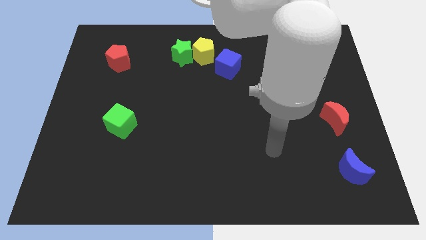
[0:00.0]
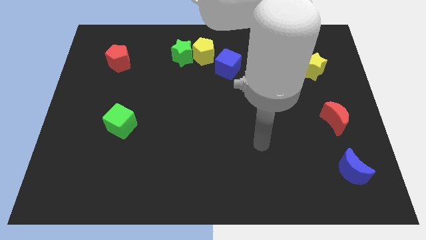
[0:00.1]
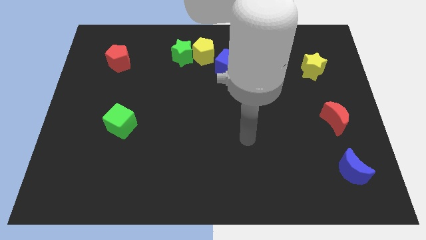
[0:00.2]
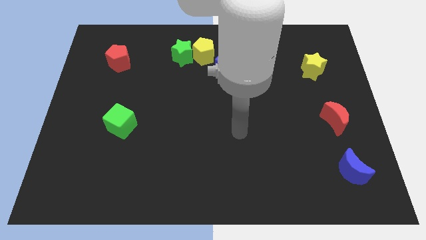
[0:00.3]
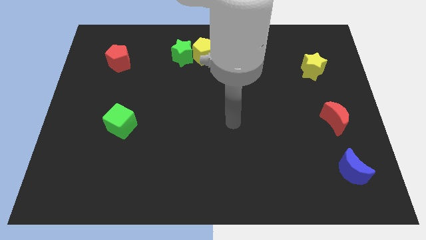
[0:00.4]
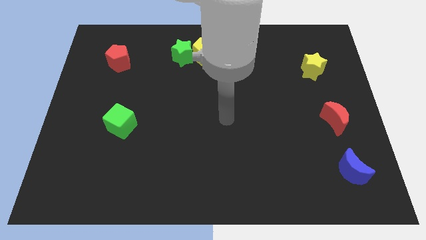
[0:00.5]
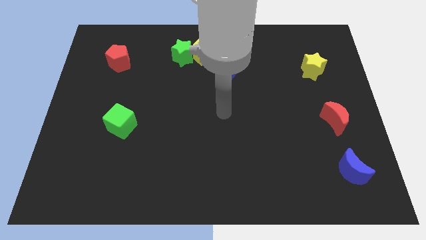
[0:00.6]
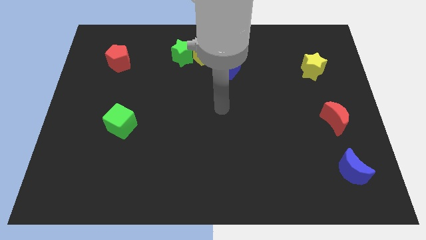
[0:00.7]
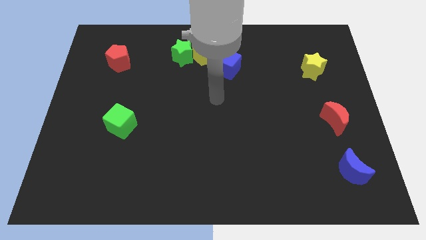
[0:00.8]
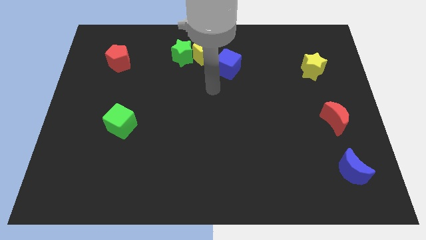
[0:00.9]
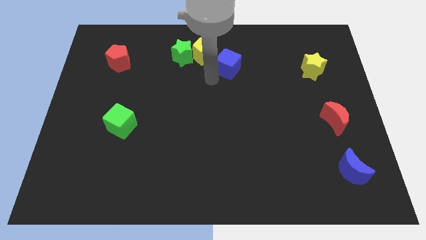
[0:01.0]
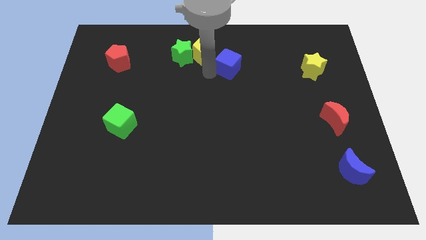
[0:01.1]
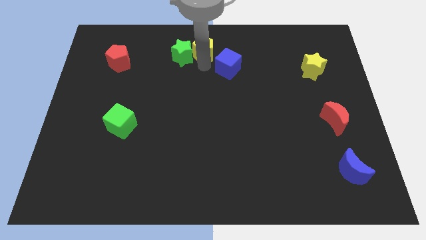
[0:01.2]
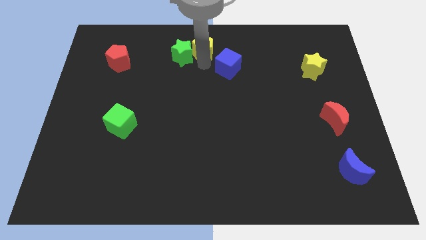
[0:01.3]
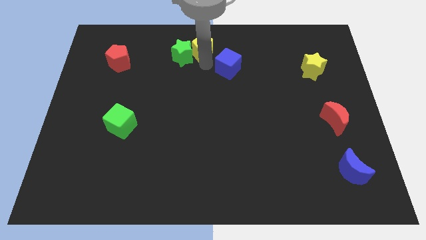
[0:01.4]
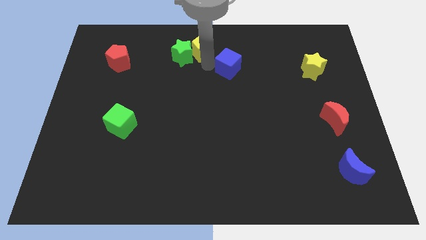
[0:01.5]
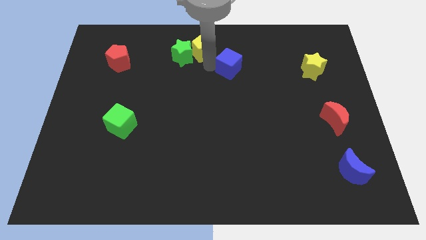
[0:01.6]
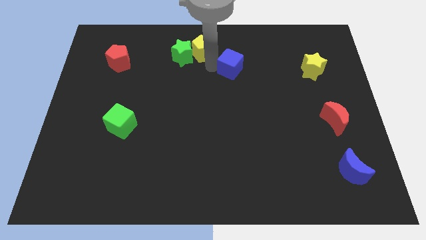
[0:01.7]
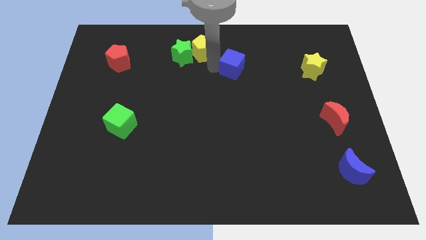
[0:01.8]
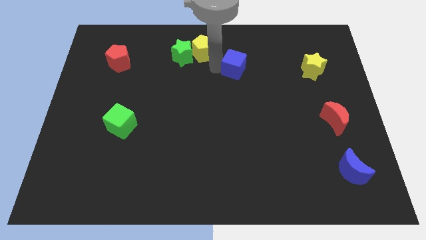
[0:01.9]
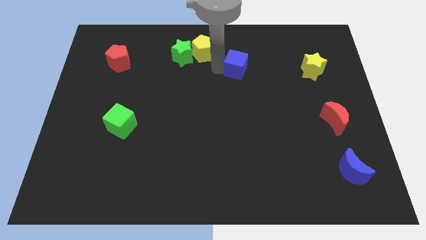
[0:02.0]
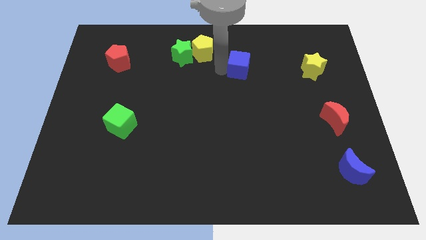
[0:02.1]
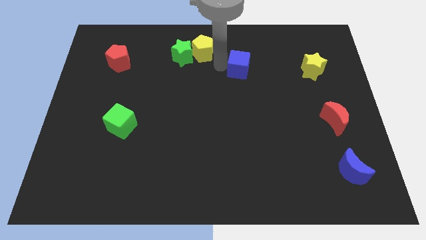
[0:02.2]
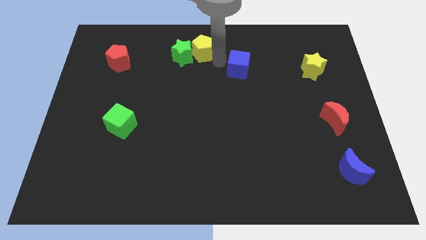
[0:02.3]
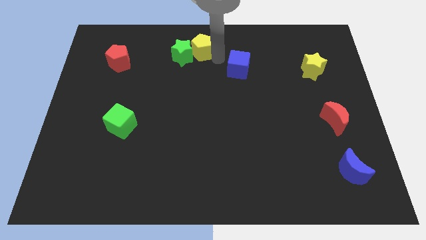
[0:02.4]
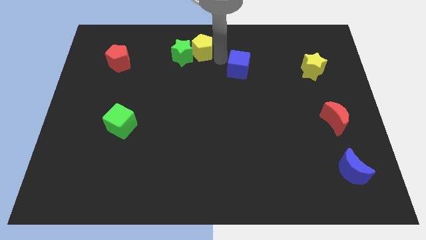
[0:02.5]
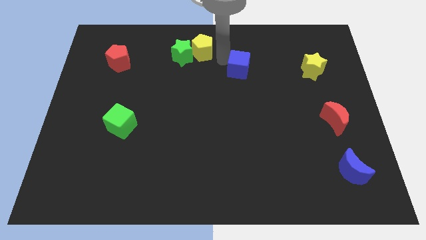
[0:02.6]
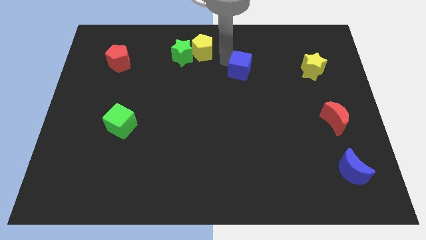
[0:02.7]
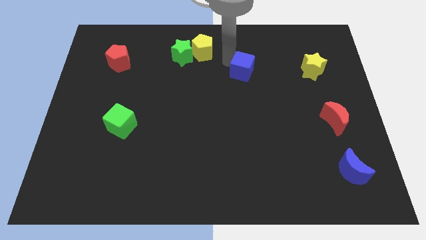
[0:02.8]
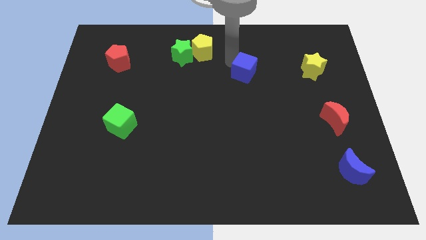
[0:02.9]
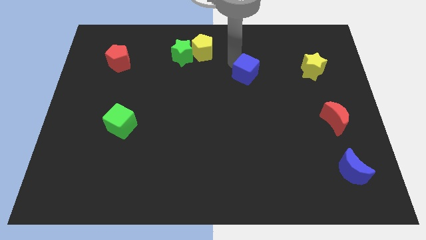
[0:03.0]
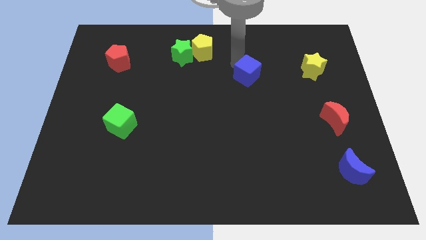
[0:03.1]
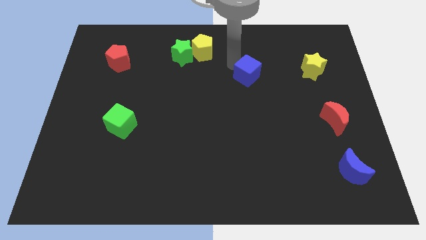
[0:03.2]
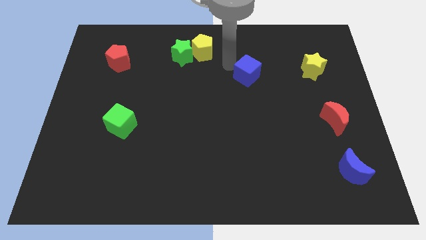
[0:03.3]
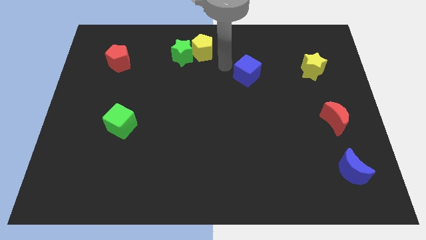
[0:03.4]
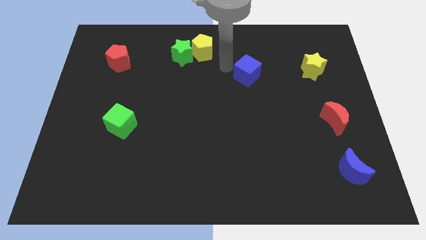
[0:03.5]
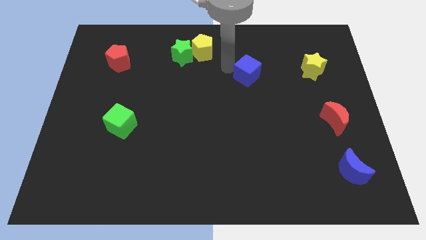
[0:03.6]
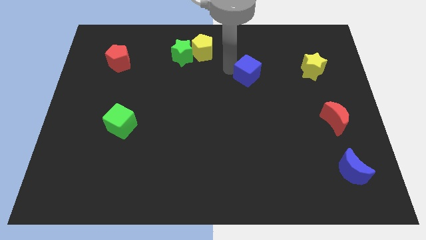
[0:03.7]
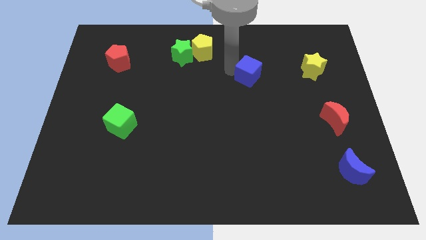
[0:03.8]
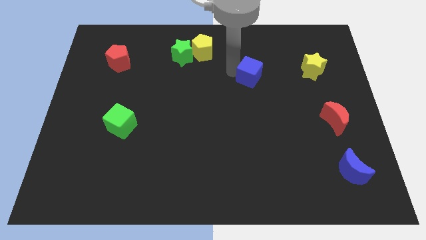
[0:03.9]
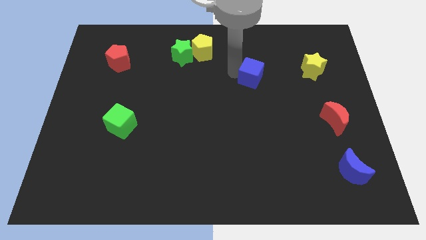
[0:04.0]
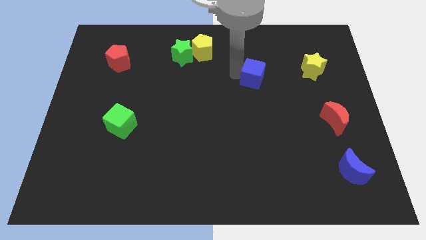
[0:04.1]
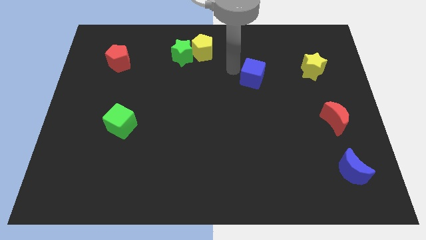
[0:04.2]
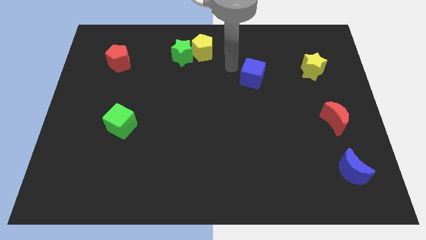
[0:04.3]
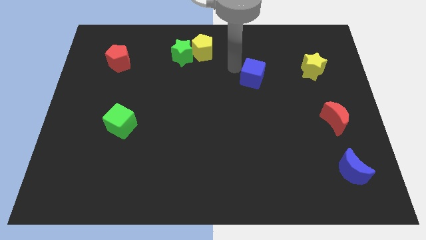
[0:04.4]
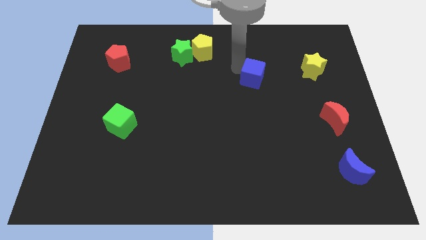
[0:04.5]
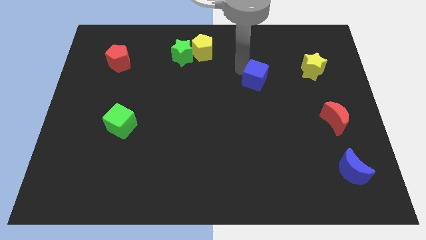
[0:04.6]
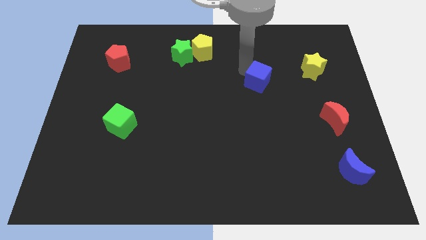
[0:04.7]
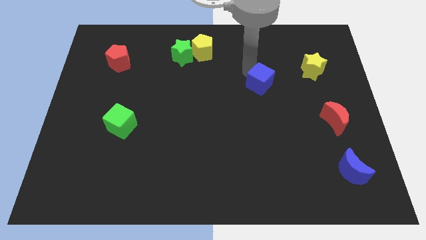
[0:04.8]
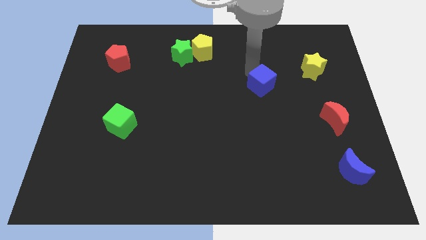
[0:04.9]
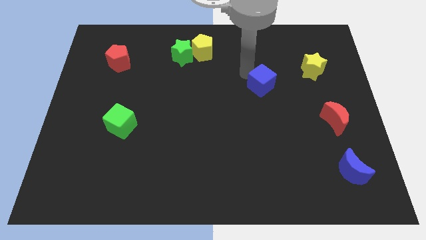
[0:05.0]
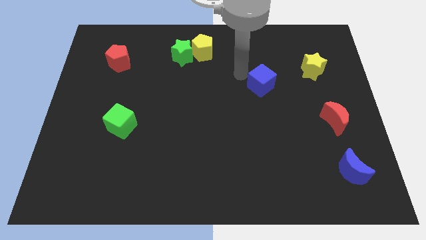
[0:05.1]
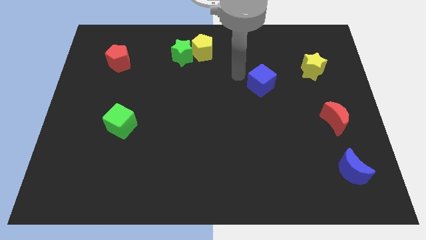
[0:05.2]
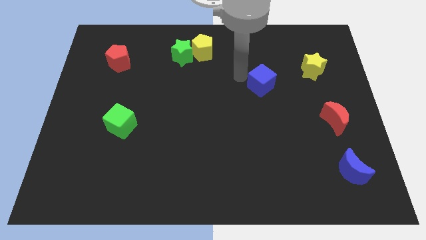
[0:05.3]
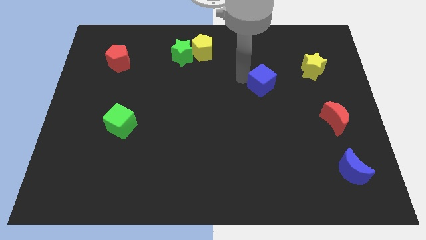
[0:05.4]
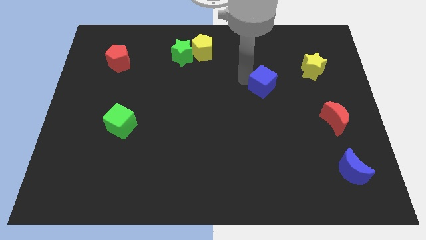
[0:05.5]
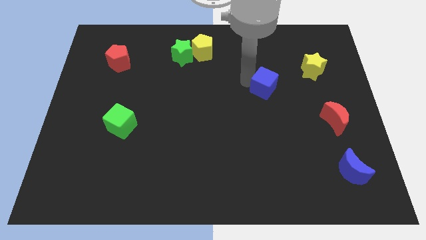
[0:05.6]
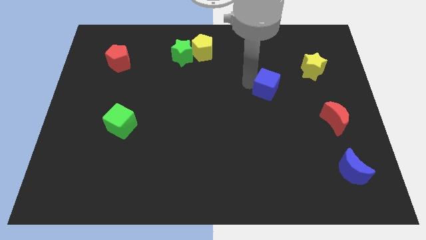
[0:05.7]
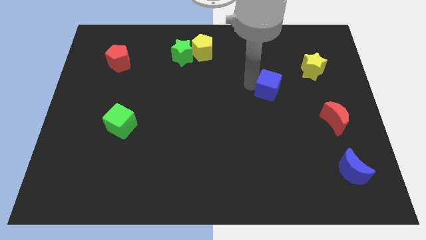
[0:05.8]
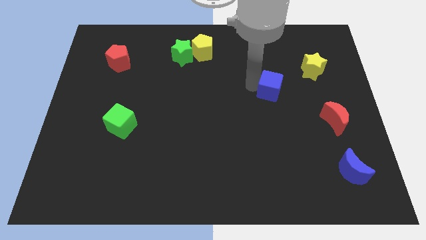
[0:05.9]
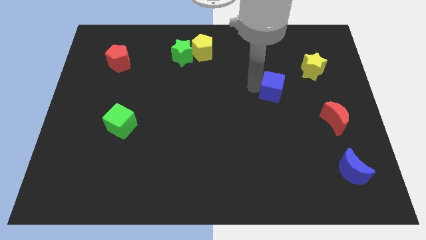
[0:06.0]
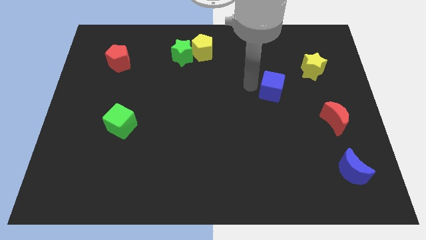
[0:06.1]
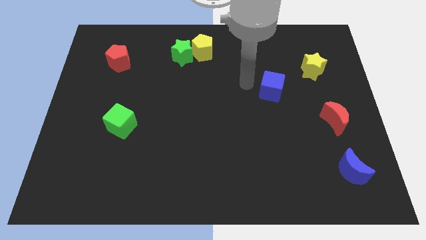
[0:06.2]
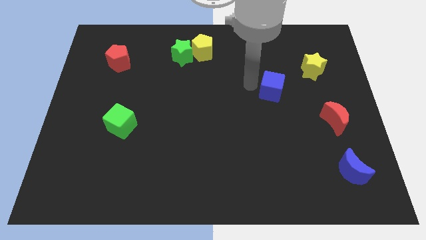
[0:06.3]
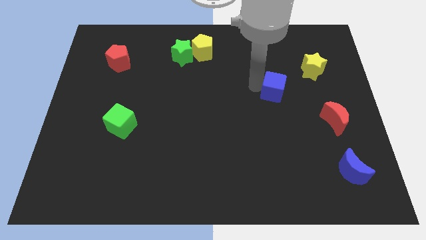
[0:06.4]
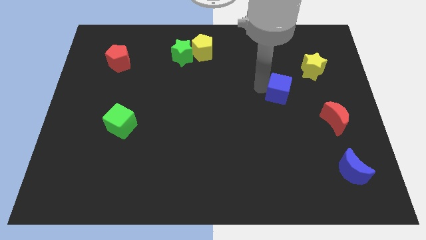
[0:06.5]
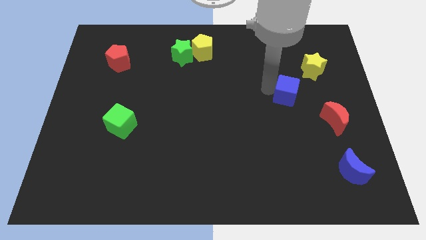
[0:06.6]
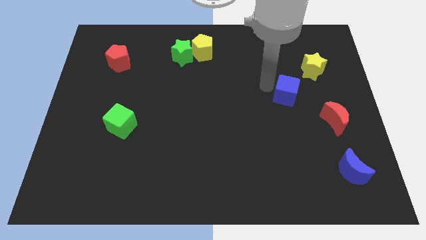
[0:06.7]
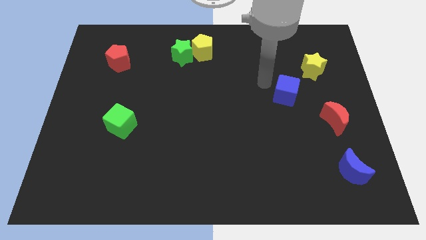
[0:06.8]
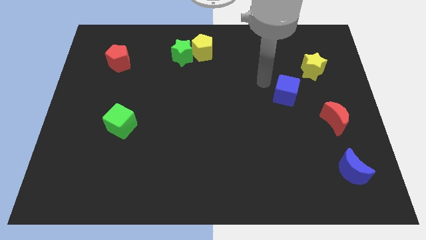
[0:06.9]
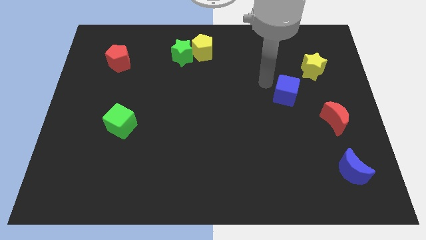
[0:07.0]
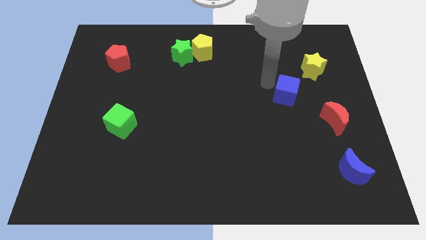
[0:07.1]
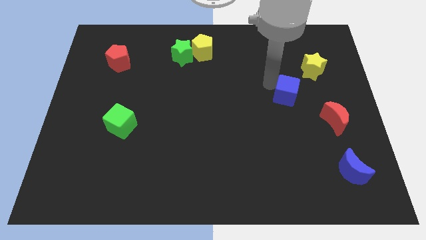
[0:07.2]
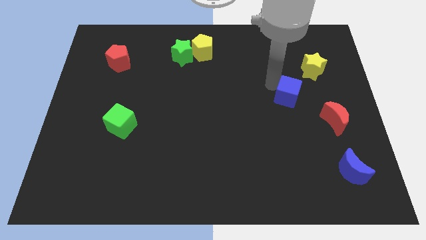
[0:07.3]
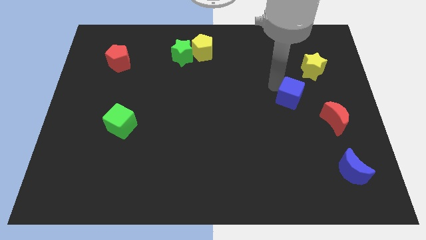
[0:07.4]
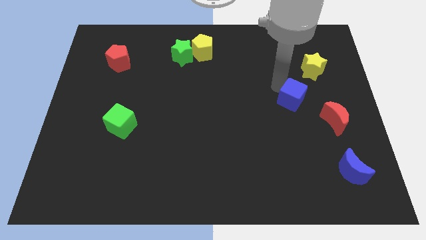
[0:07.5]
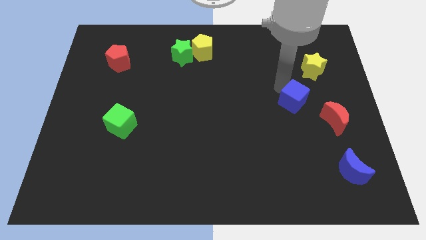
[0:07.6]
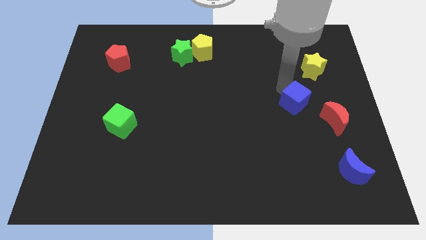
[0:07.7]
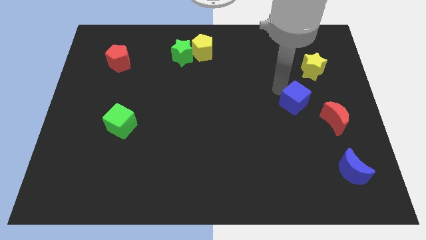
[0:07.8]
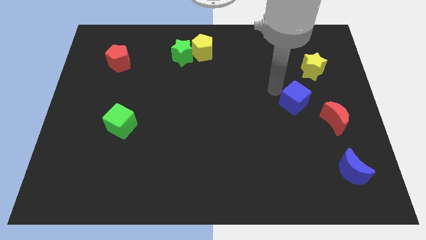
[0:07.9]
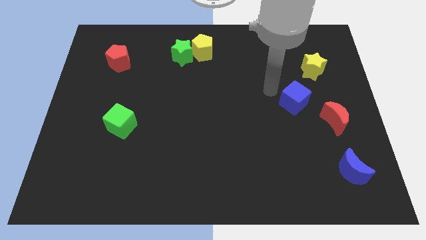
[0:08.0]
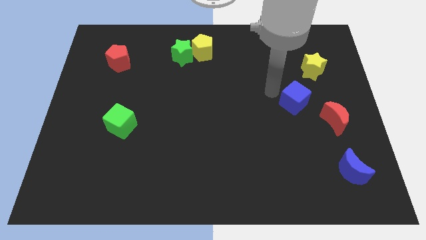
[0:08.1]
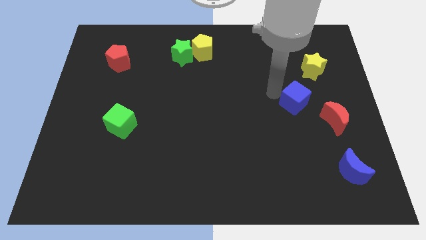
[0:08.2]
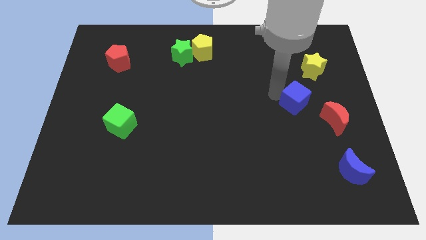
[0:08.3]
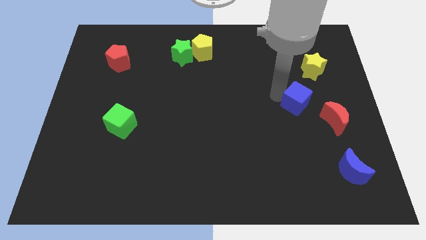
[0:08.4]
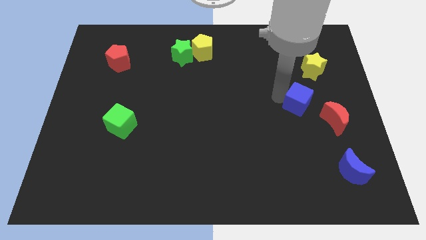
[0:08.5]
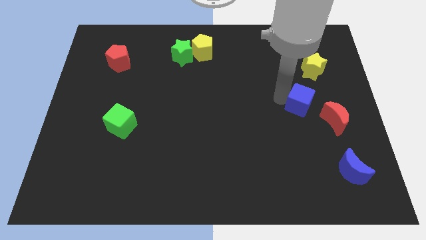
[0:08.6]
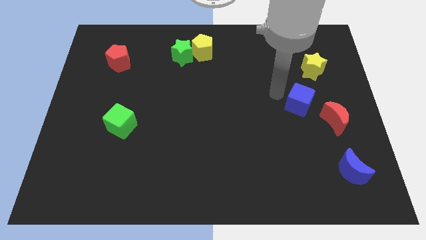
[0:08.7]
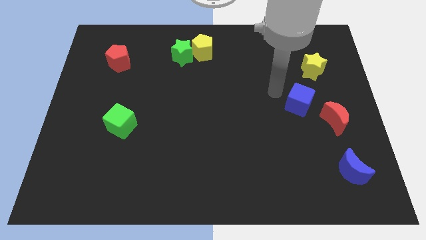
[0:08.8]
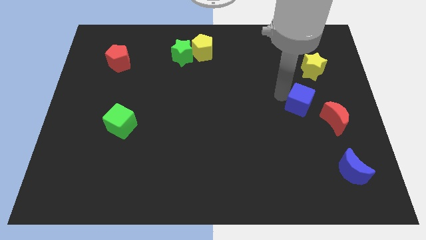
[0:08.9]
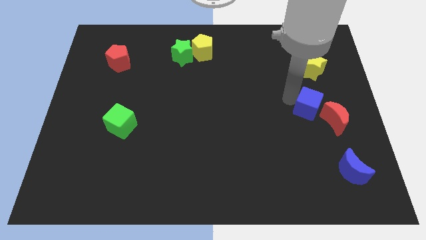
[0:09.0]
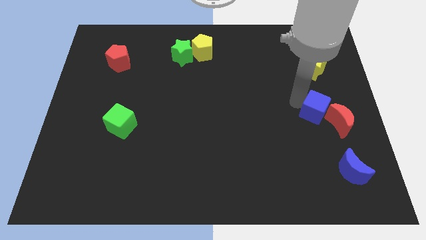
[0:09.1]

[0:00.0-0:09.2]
slide the blue cube close to the red moon
